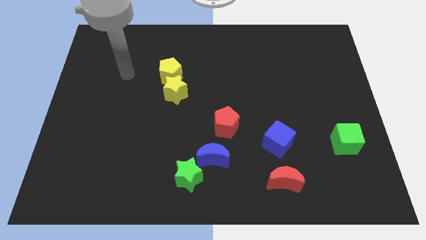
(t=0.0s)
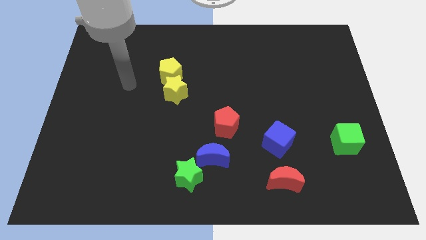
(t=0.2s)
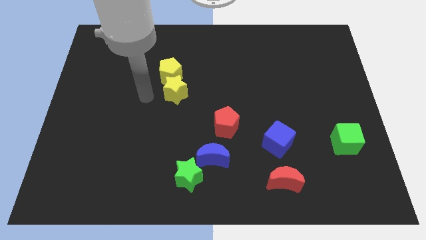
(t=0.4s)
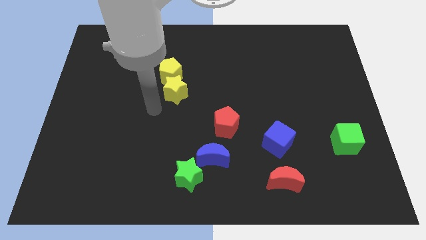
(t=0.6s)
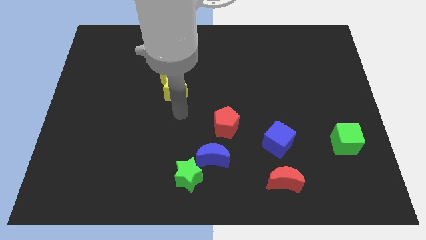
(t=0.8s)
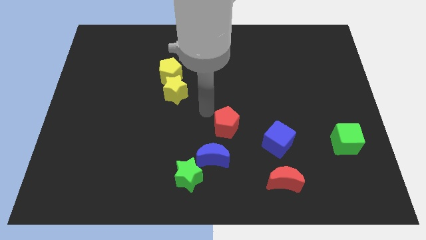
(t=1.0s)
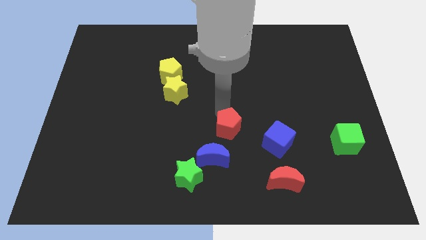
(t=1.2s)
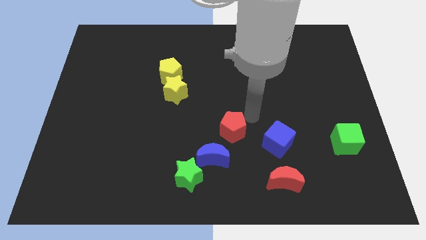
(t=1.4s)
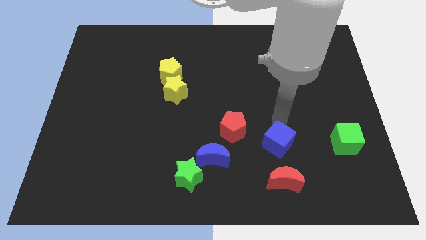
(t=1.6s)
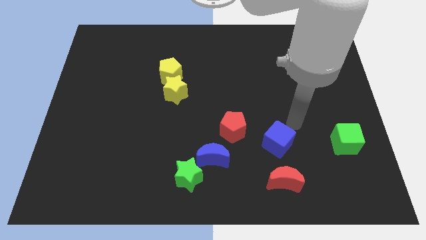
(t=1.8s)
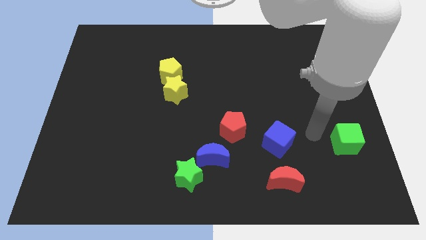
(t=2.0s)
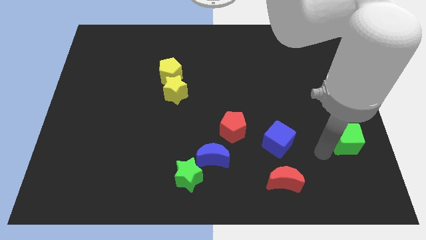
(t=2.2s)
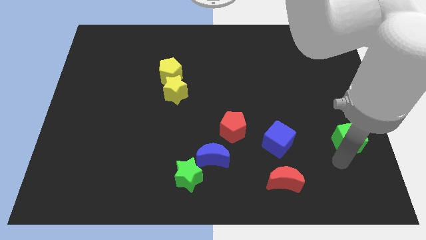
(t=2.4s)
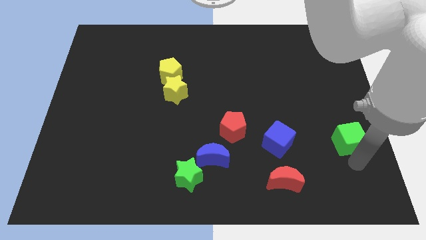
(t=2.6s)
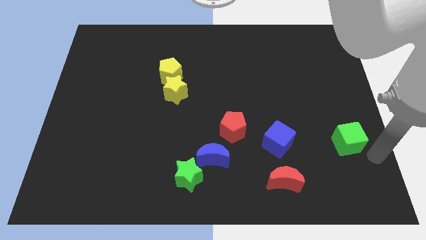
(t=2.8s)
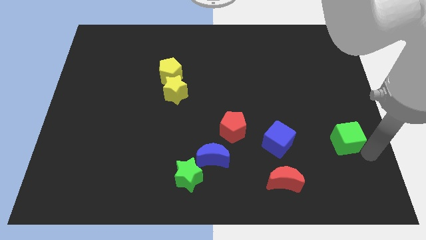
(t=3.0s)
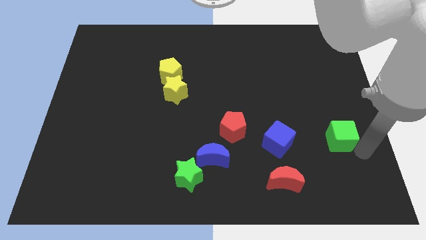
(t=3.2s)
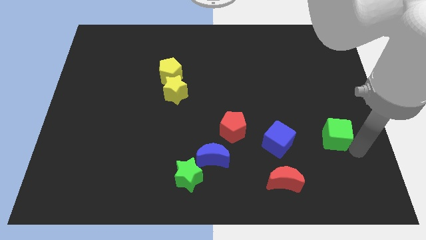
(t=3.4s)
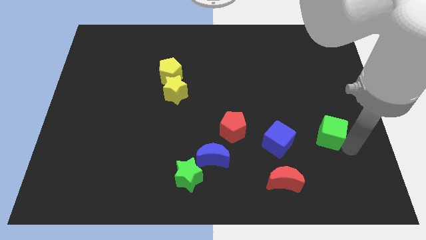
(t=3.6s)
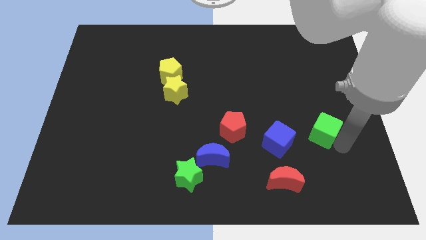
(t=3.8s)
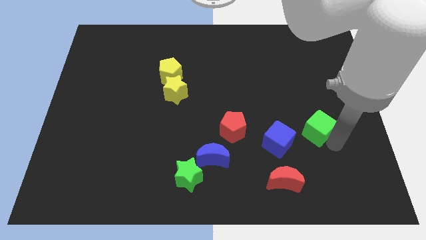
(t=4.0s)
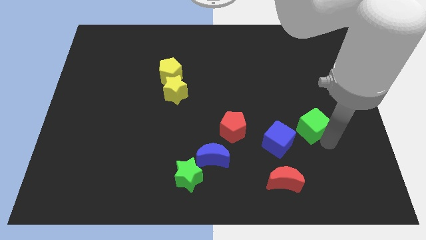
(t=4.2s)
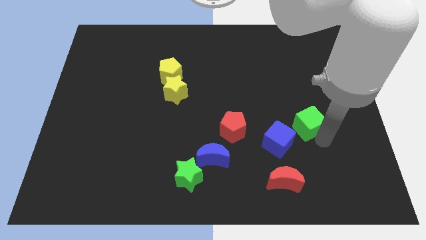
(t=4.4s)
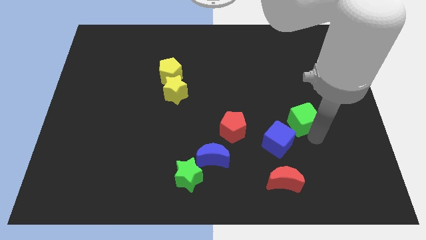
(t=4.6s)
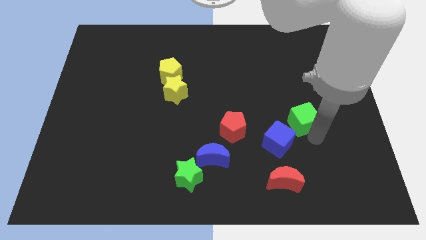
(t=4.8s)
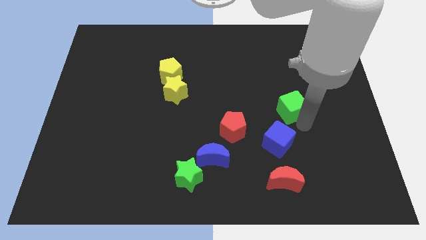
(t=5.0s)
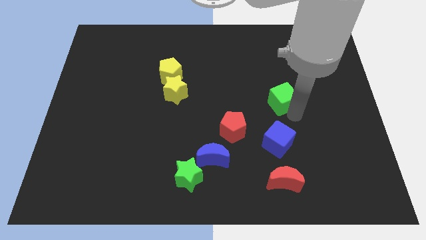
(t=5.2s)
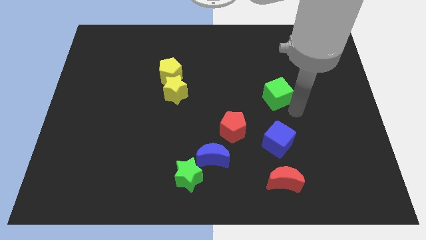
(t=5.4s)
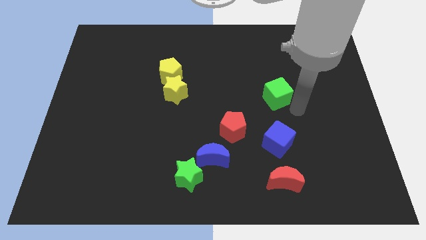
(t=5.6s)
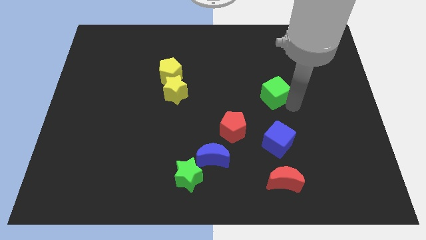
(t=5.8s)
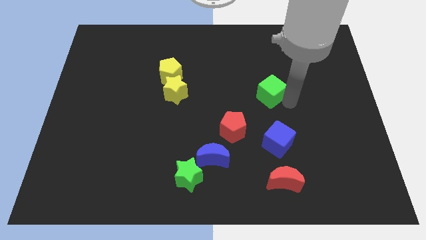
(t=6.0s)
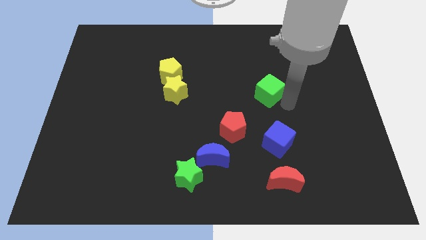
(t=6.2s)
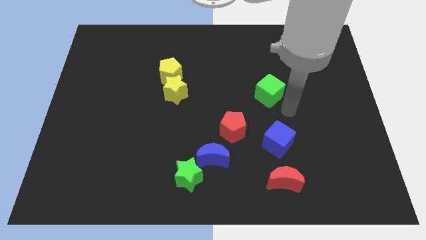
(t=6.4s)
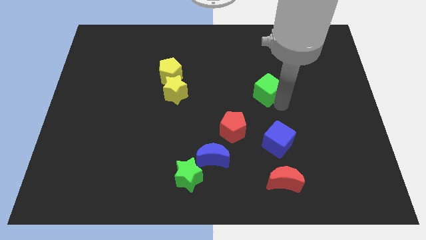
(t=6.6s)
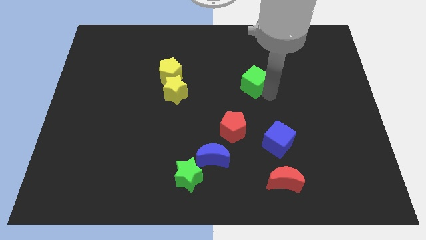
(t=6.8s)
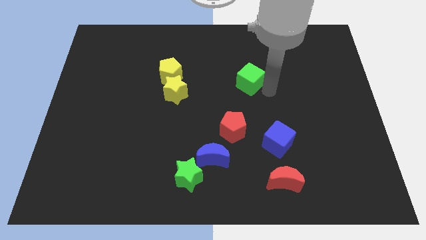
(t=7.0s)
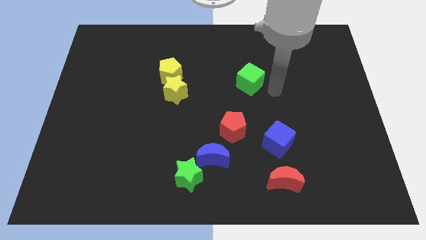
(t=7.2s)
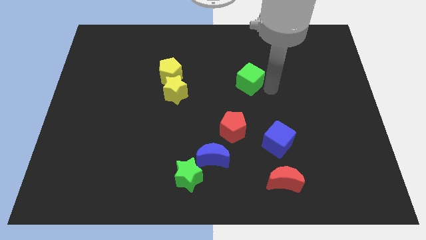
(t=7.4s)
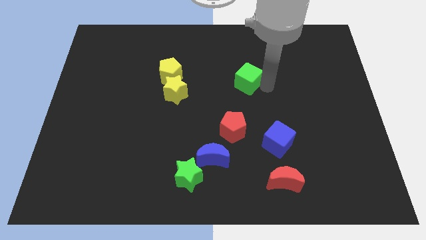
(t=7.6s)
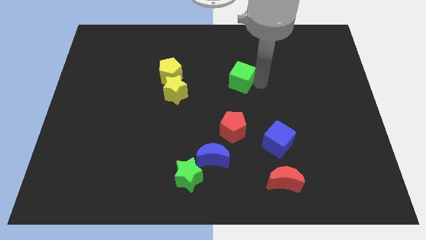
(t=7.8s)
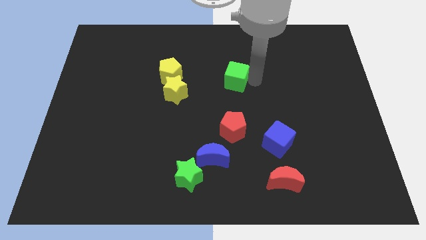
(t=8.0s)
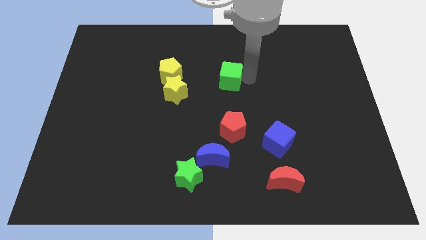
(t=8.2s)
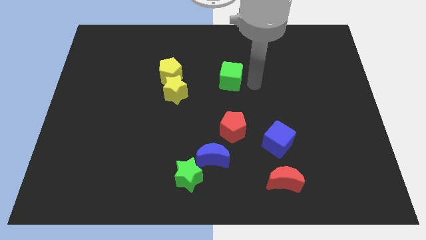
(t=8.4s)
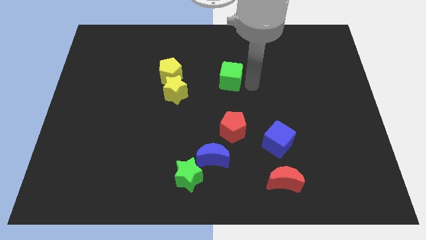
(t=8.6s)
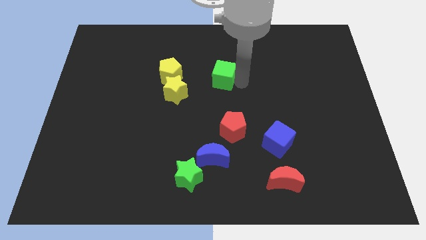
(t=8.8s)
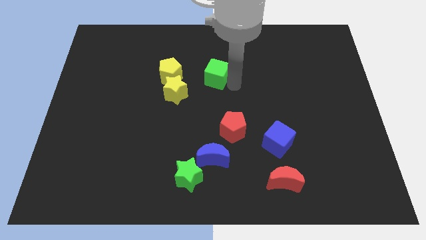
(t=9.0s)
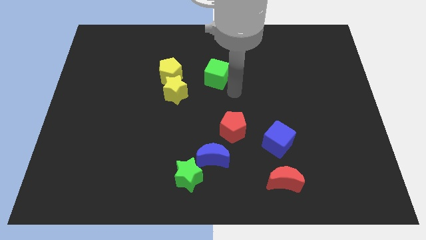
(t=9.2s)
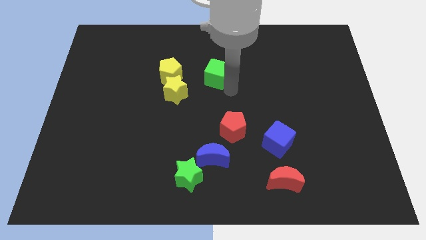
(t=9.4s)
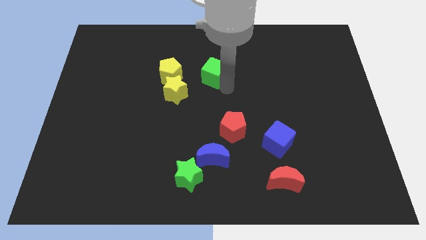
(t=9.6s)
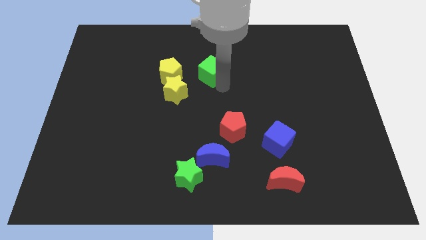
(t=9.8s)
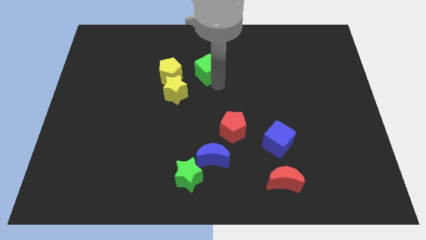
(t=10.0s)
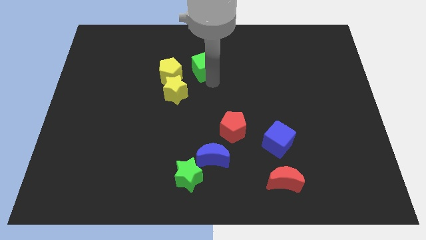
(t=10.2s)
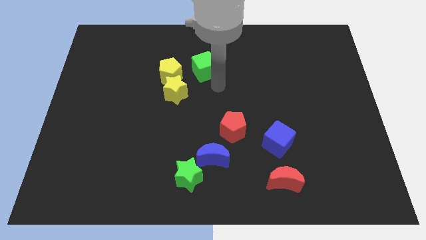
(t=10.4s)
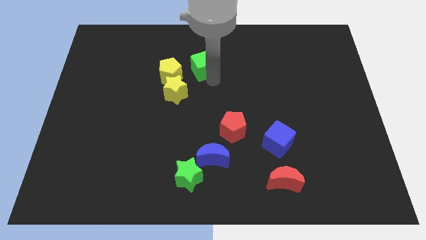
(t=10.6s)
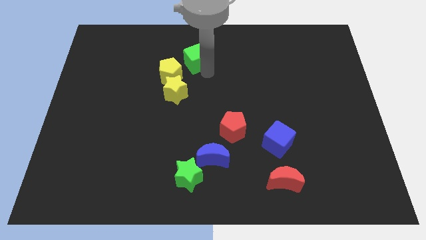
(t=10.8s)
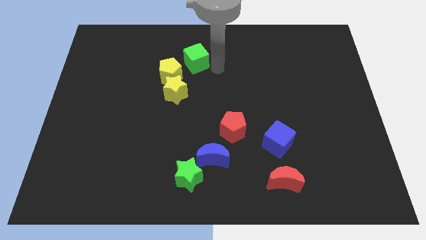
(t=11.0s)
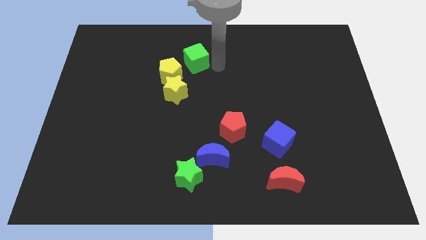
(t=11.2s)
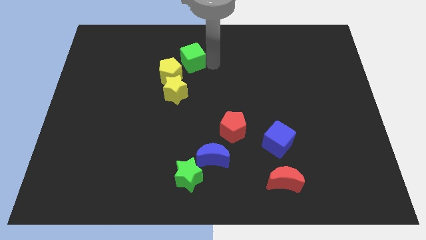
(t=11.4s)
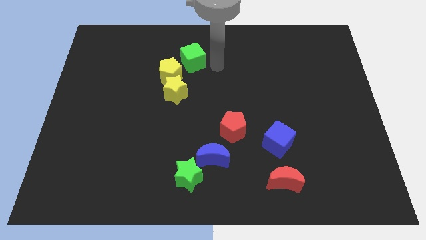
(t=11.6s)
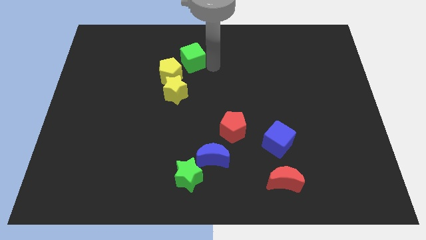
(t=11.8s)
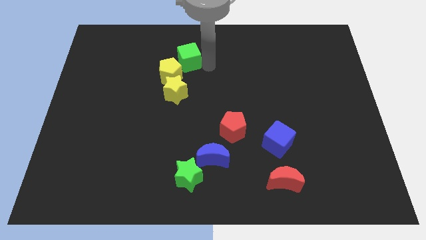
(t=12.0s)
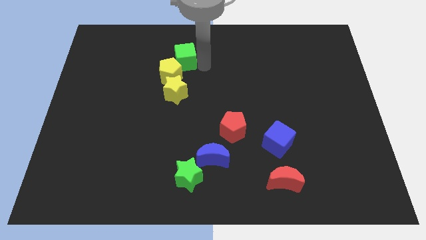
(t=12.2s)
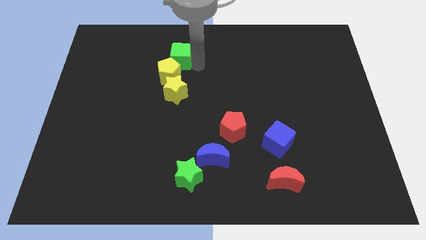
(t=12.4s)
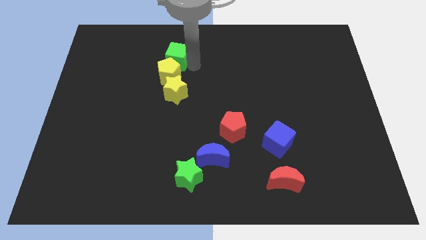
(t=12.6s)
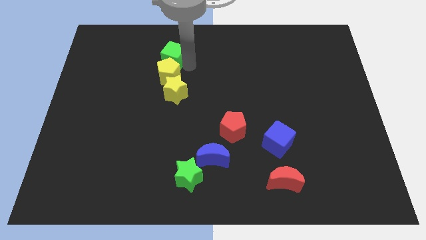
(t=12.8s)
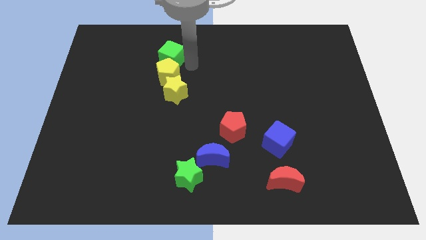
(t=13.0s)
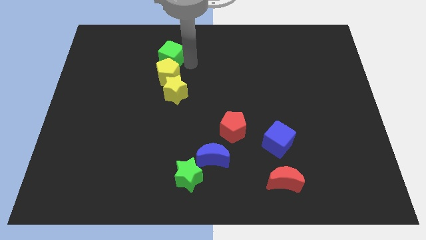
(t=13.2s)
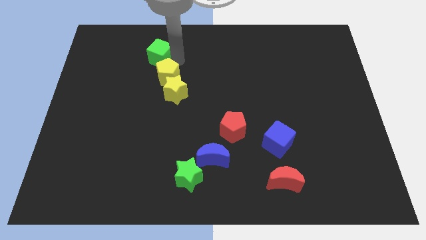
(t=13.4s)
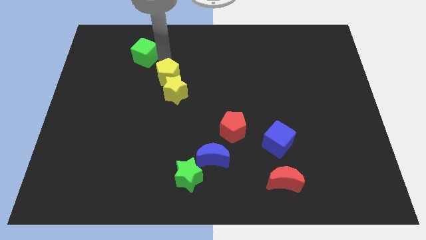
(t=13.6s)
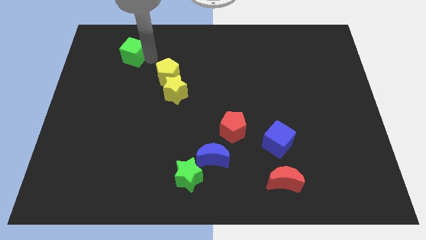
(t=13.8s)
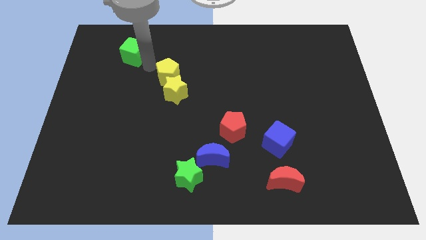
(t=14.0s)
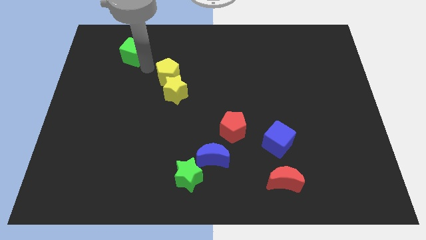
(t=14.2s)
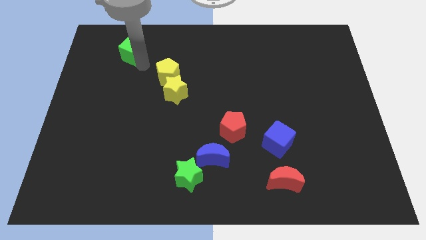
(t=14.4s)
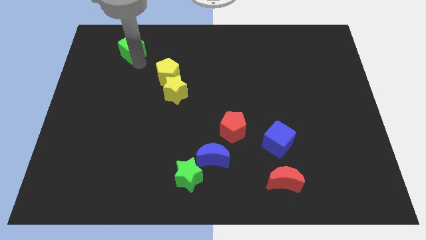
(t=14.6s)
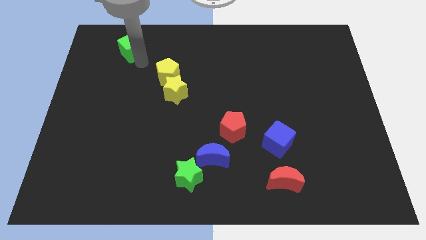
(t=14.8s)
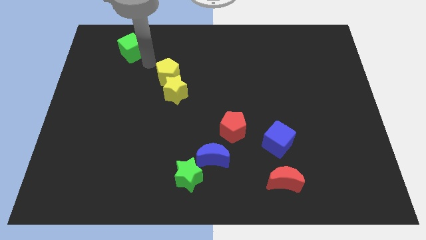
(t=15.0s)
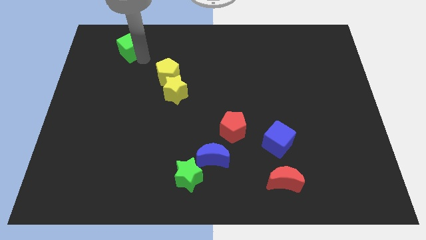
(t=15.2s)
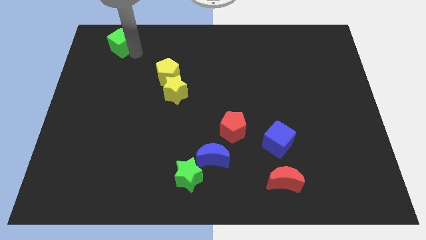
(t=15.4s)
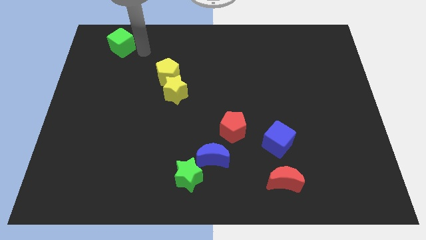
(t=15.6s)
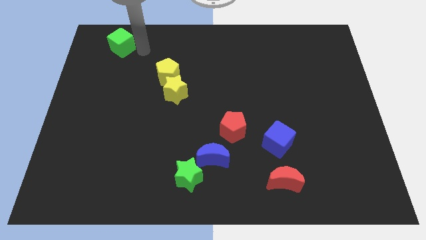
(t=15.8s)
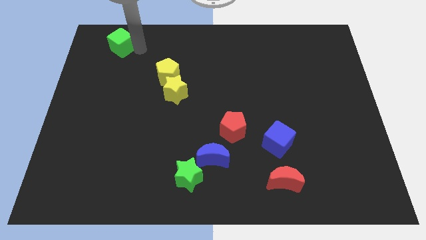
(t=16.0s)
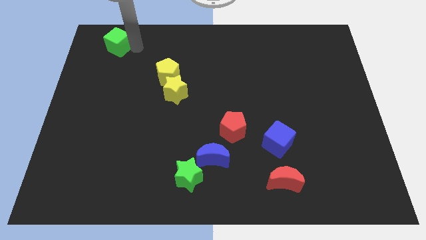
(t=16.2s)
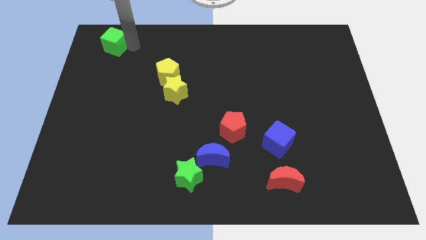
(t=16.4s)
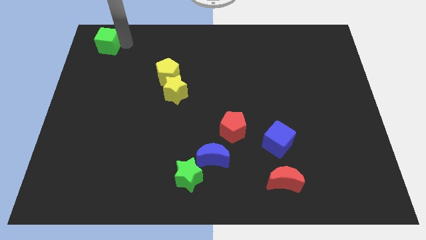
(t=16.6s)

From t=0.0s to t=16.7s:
put the green cube to the top left of the board
